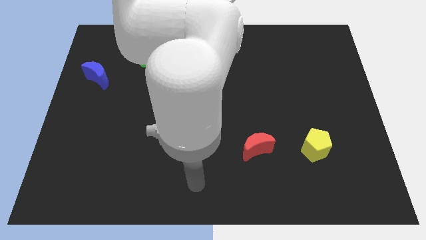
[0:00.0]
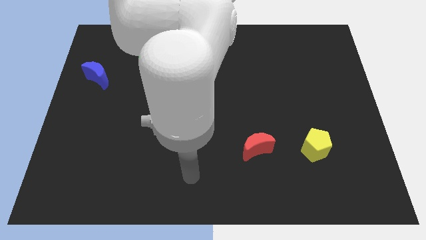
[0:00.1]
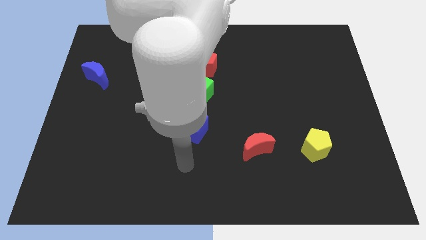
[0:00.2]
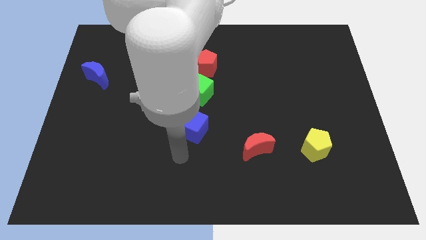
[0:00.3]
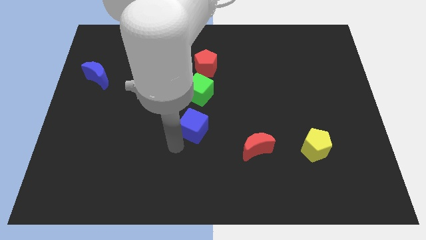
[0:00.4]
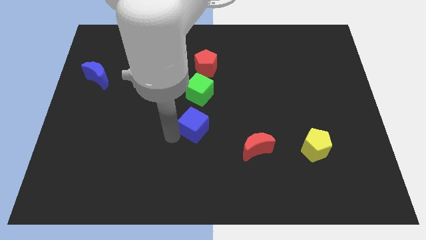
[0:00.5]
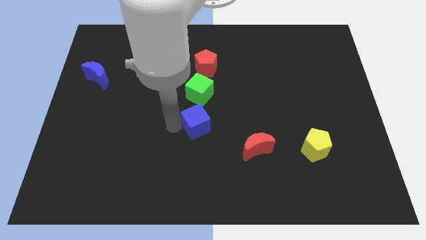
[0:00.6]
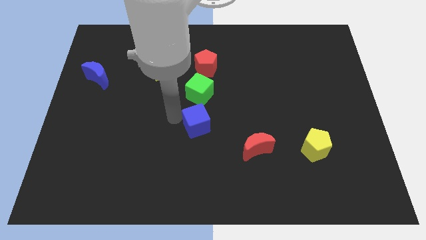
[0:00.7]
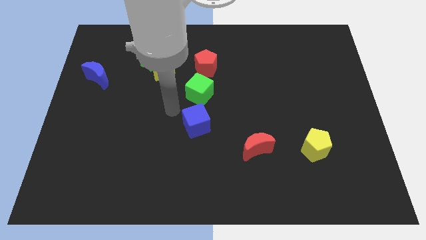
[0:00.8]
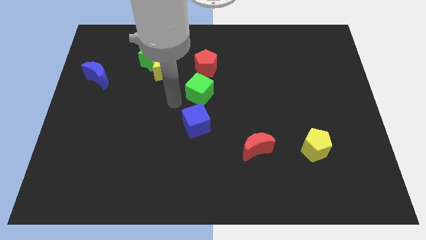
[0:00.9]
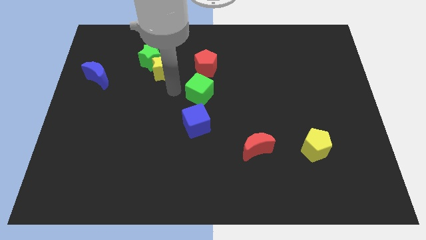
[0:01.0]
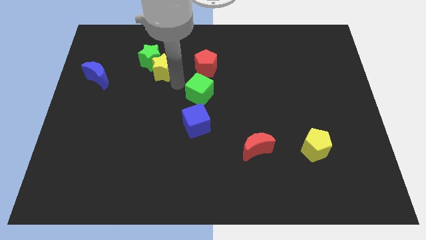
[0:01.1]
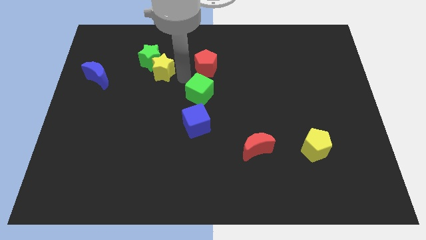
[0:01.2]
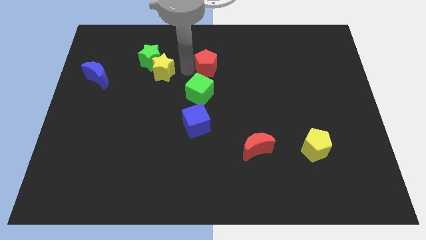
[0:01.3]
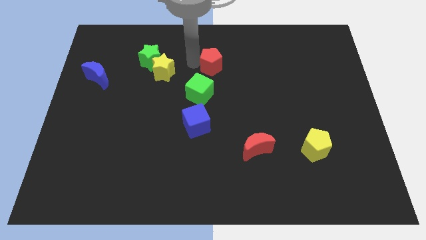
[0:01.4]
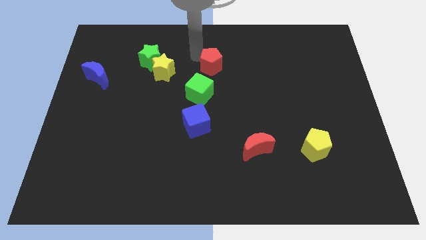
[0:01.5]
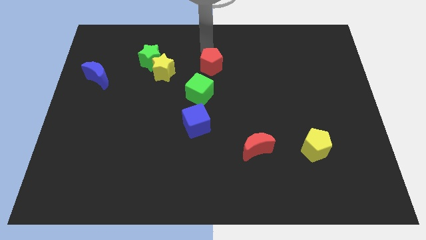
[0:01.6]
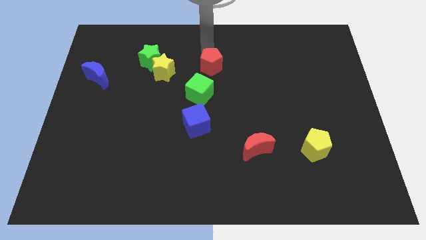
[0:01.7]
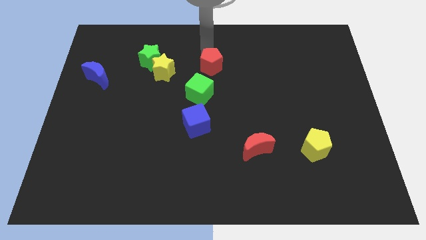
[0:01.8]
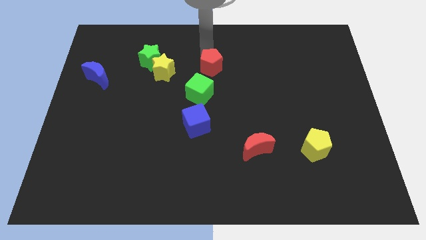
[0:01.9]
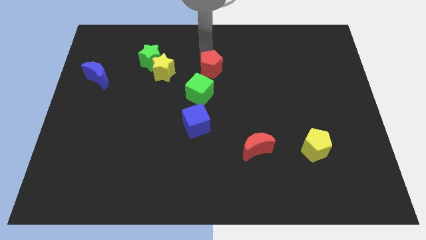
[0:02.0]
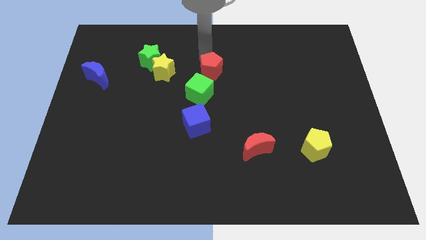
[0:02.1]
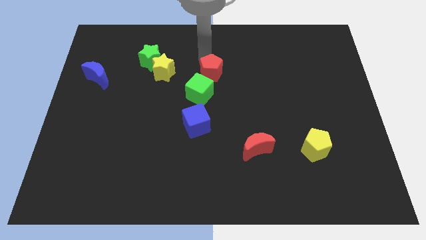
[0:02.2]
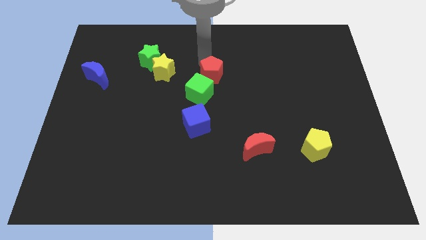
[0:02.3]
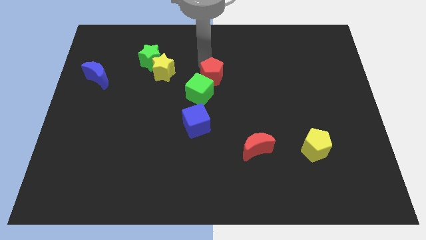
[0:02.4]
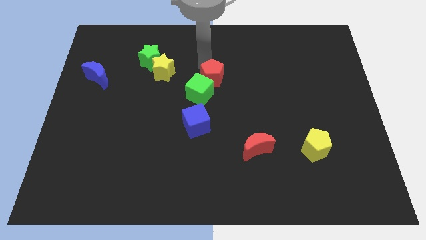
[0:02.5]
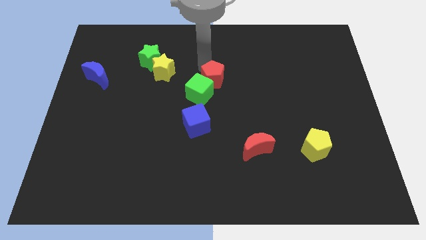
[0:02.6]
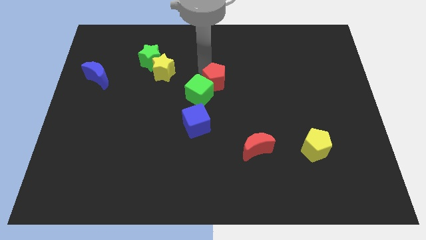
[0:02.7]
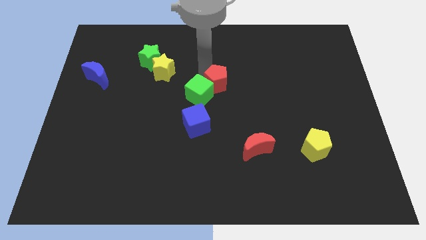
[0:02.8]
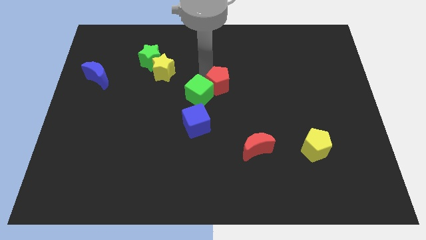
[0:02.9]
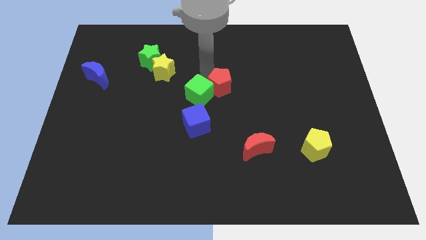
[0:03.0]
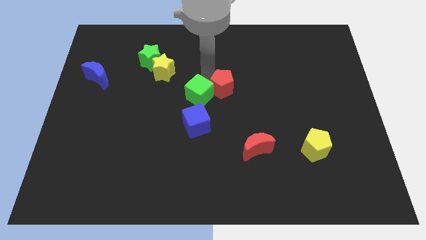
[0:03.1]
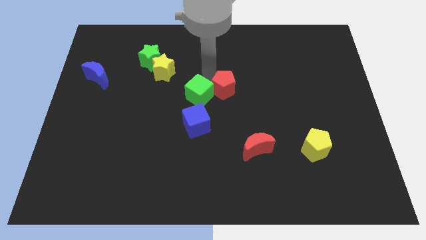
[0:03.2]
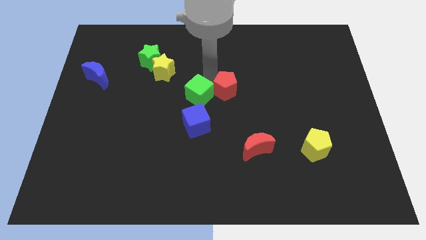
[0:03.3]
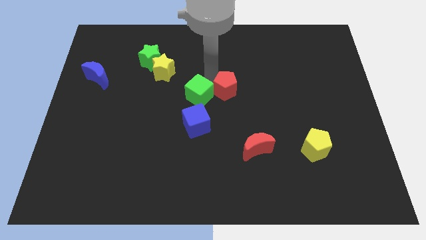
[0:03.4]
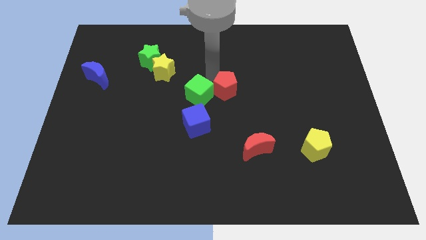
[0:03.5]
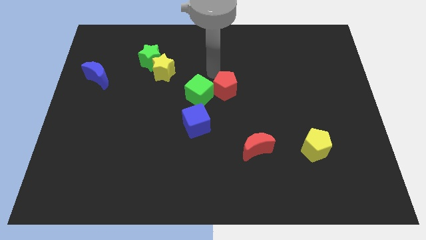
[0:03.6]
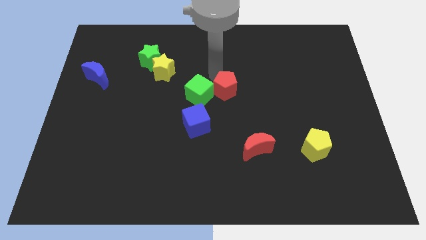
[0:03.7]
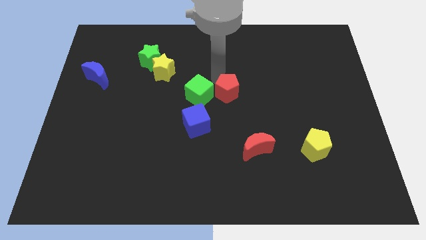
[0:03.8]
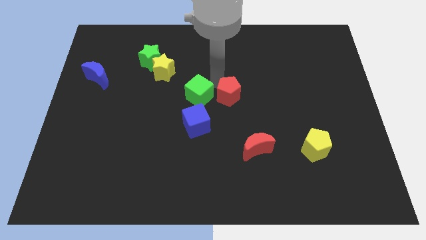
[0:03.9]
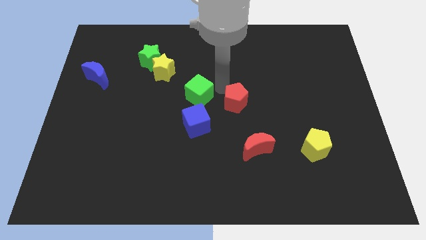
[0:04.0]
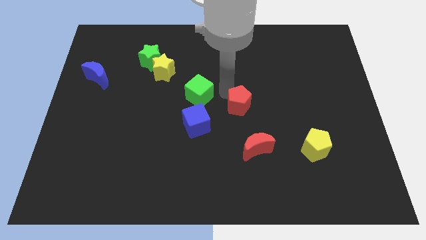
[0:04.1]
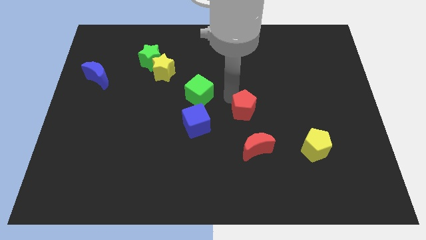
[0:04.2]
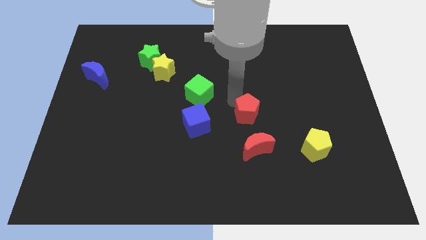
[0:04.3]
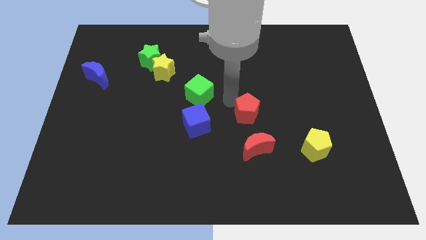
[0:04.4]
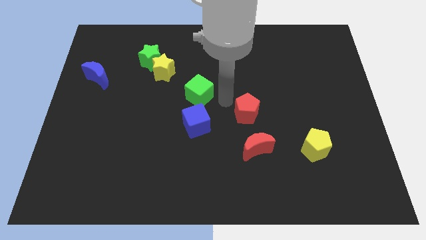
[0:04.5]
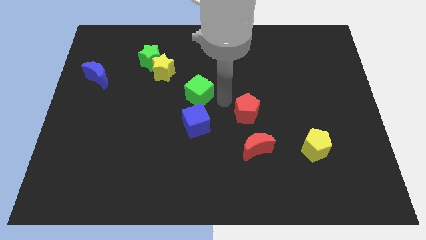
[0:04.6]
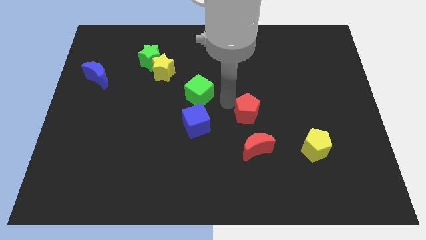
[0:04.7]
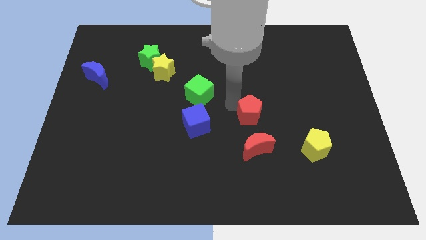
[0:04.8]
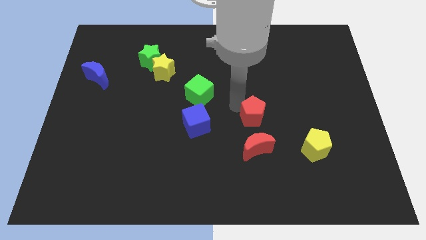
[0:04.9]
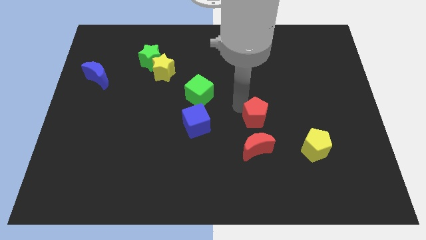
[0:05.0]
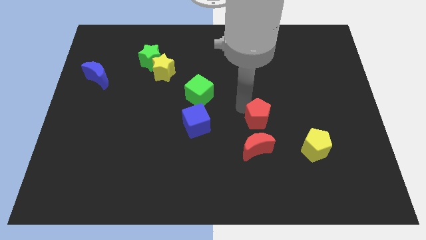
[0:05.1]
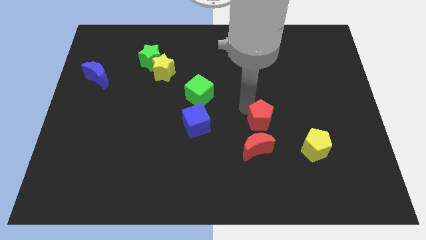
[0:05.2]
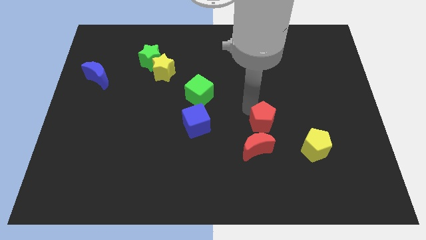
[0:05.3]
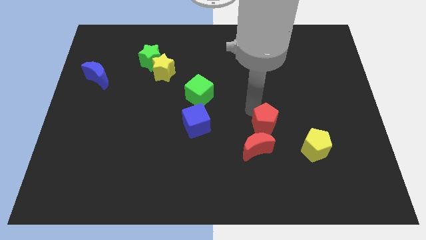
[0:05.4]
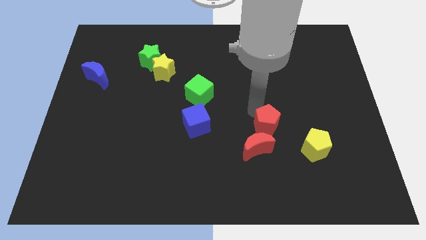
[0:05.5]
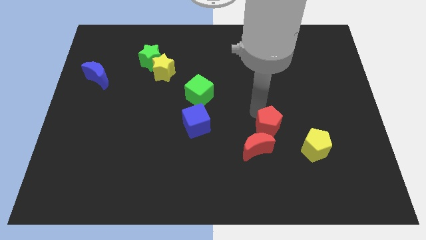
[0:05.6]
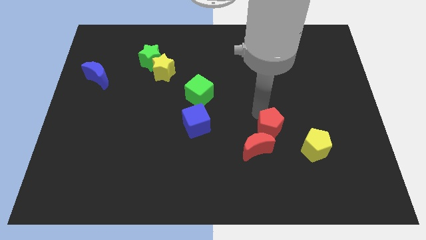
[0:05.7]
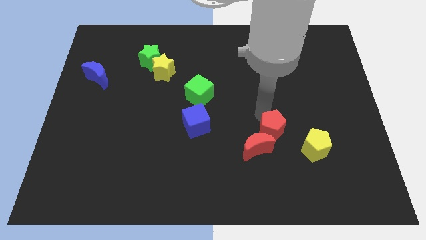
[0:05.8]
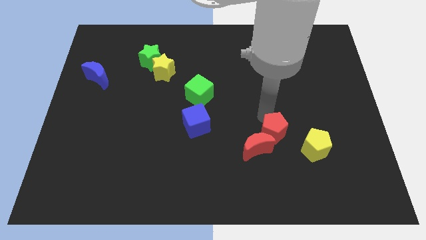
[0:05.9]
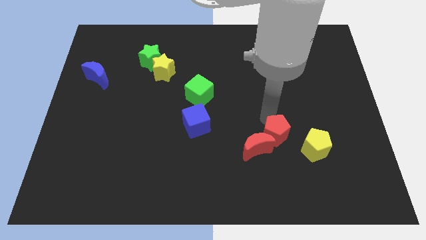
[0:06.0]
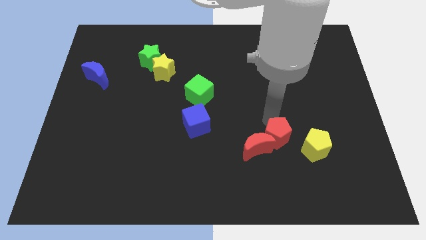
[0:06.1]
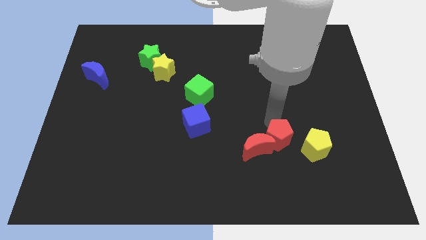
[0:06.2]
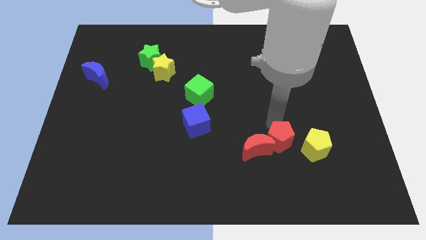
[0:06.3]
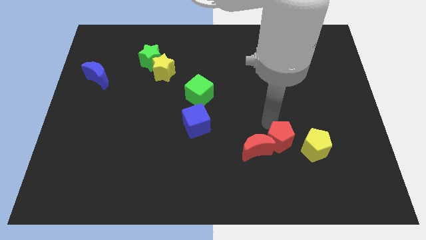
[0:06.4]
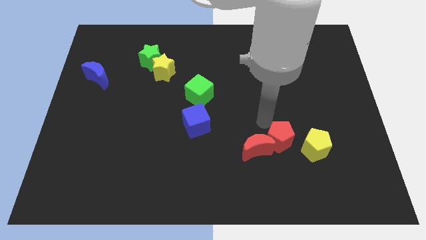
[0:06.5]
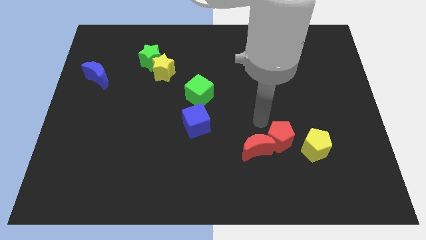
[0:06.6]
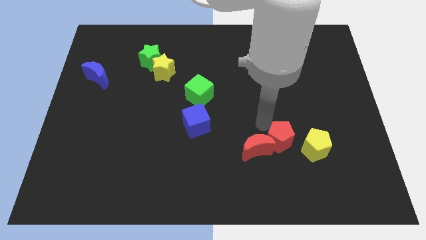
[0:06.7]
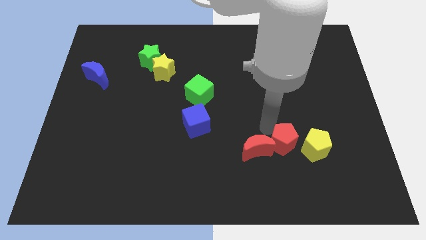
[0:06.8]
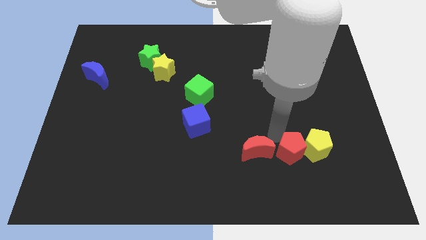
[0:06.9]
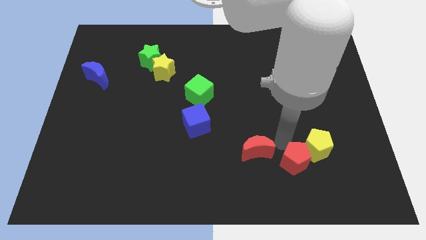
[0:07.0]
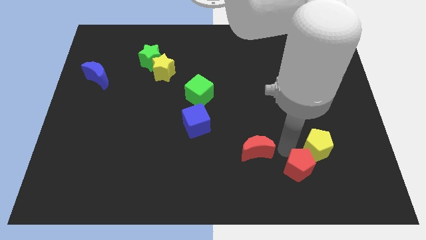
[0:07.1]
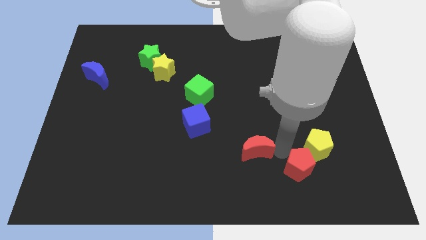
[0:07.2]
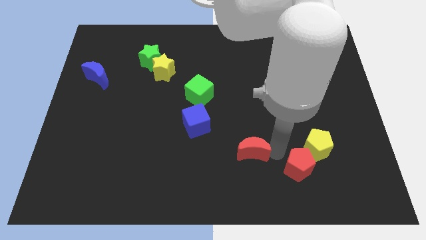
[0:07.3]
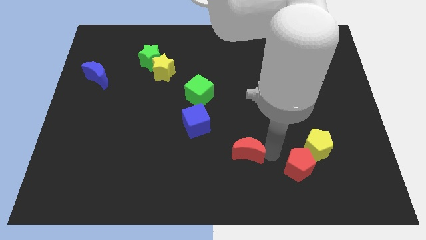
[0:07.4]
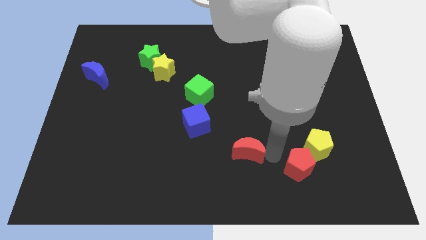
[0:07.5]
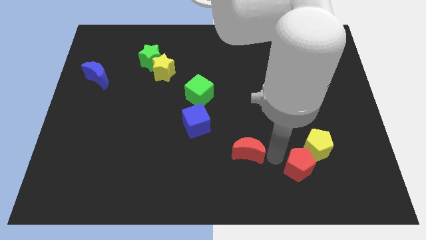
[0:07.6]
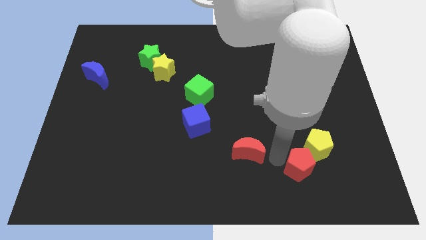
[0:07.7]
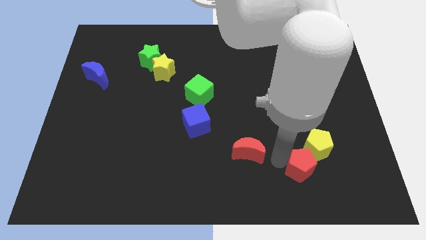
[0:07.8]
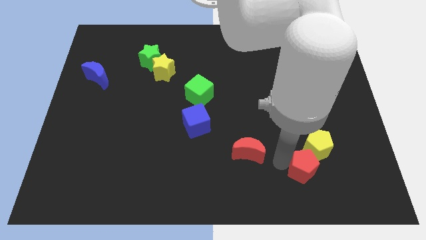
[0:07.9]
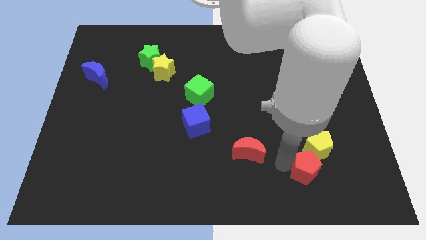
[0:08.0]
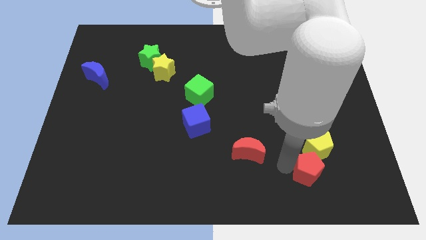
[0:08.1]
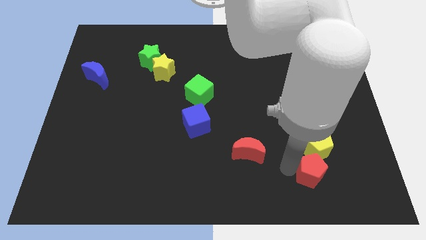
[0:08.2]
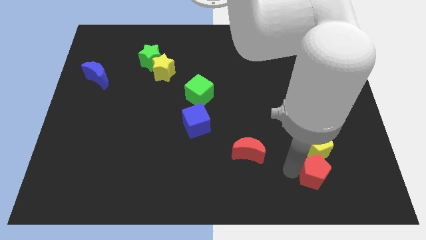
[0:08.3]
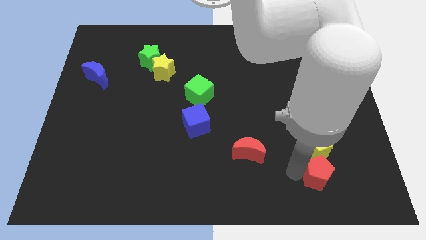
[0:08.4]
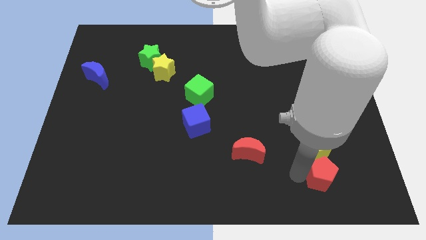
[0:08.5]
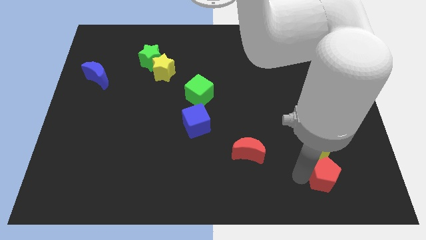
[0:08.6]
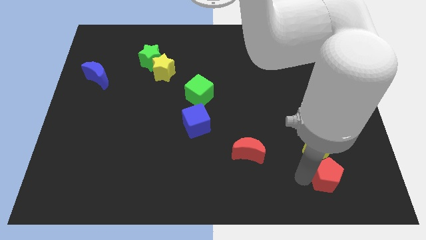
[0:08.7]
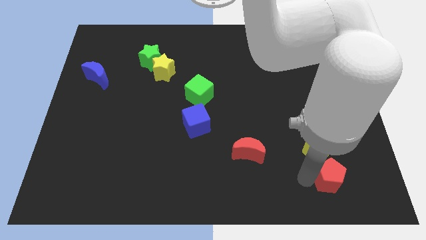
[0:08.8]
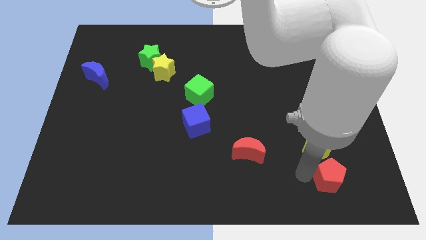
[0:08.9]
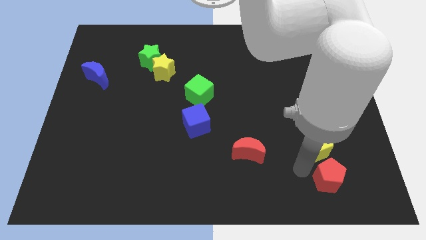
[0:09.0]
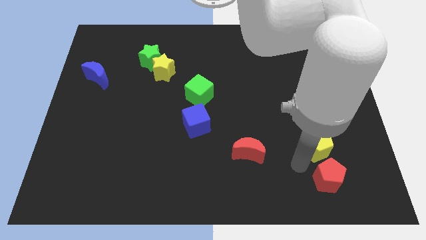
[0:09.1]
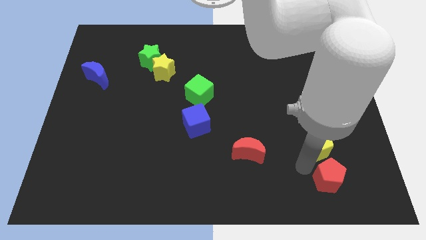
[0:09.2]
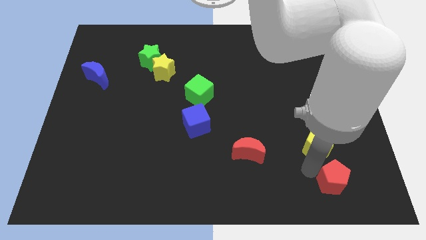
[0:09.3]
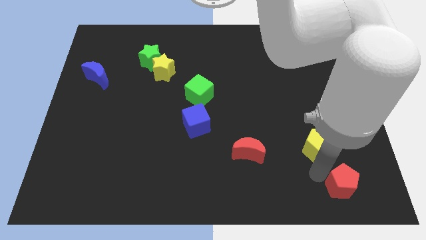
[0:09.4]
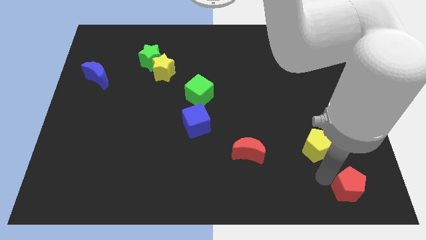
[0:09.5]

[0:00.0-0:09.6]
put the red pentagon to the bottom right of the board
